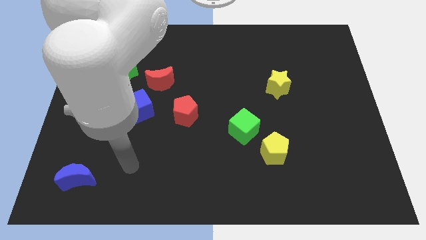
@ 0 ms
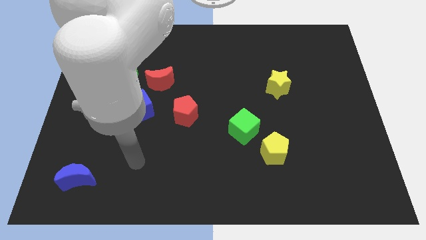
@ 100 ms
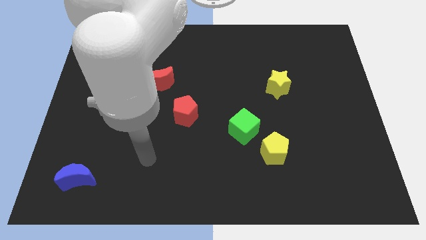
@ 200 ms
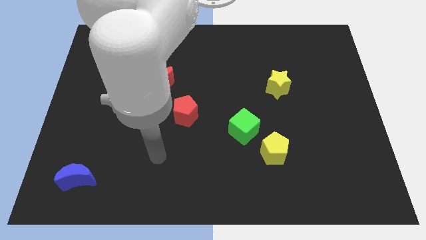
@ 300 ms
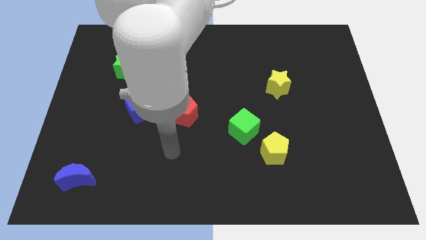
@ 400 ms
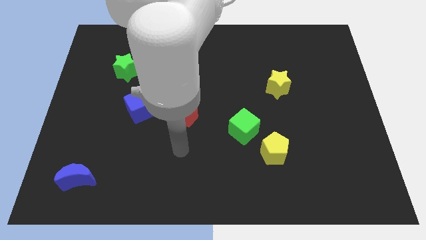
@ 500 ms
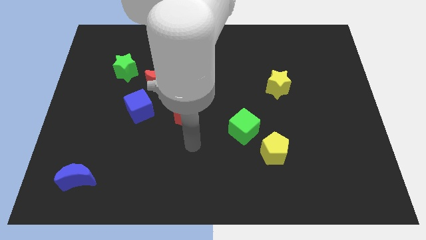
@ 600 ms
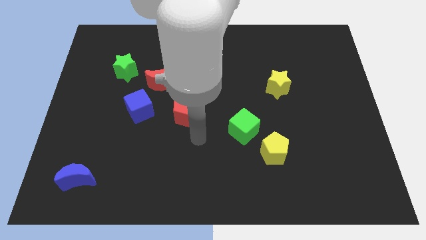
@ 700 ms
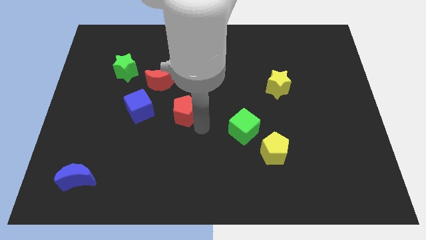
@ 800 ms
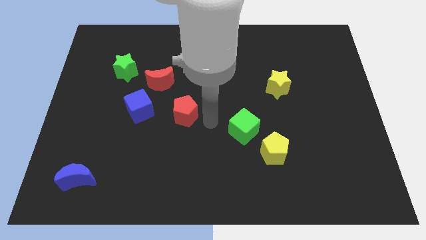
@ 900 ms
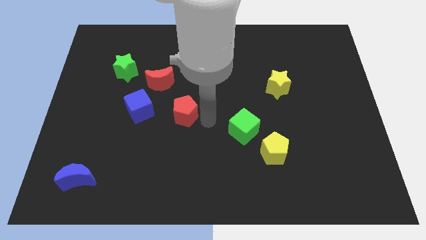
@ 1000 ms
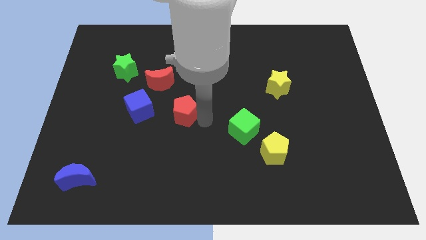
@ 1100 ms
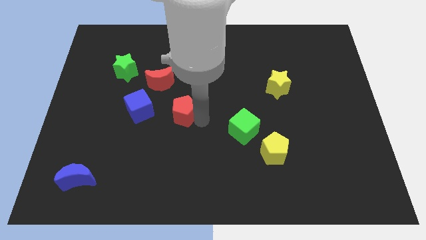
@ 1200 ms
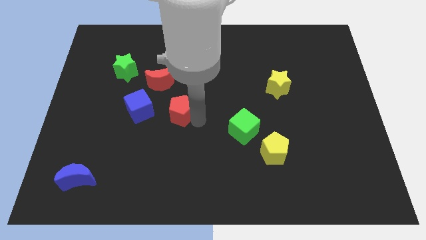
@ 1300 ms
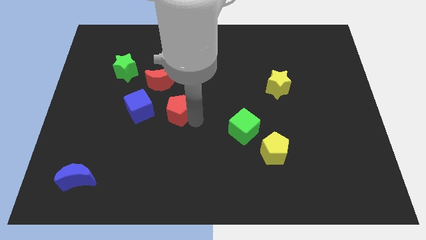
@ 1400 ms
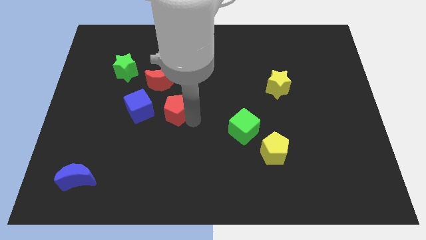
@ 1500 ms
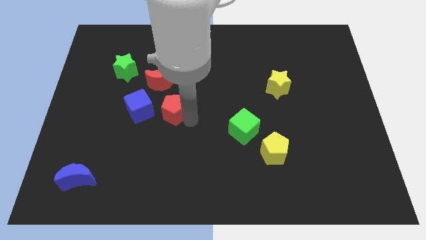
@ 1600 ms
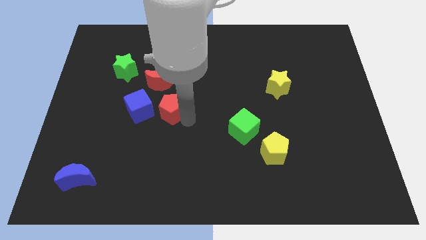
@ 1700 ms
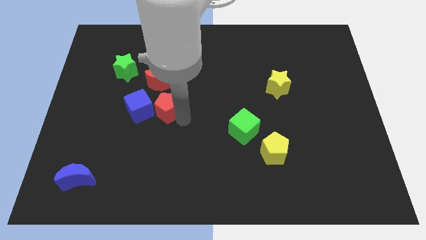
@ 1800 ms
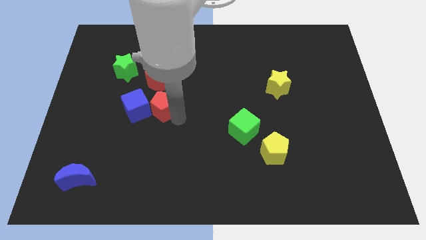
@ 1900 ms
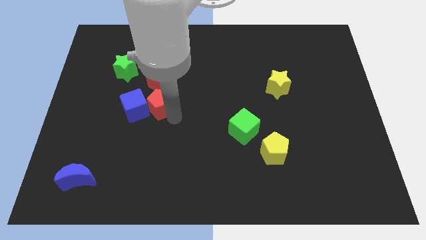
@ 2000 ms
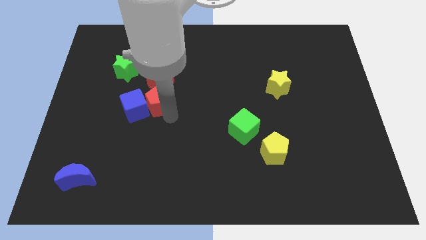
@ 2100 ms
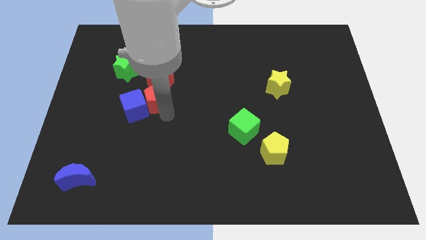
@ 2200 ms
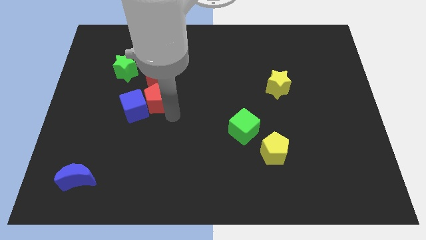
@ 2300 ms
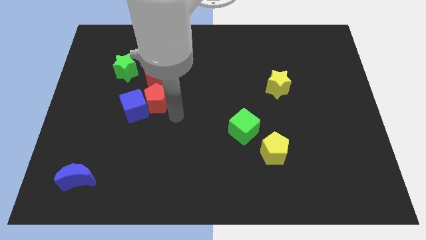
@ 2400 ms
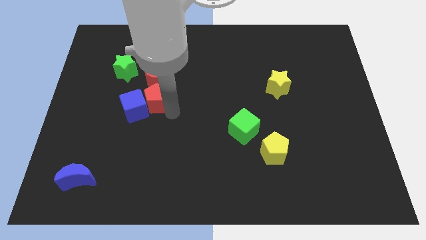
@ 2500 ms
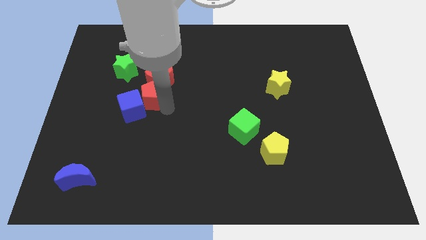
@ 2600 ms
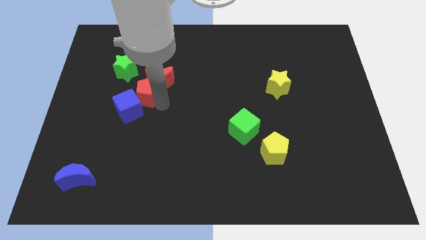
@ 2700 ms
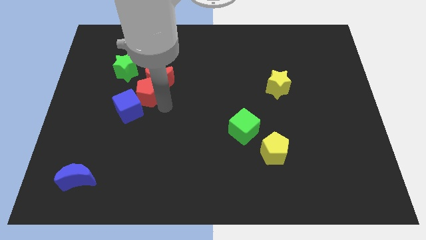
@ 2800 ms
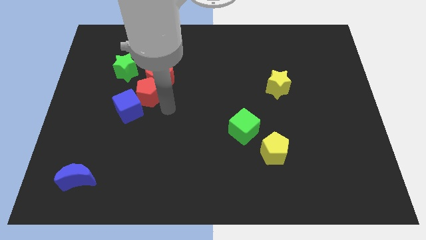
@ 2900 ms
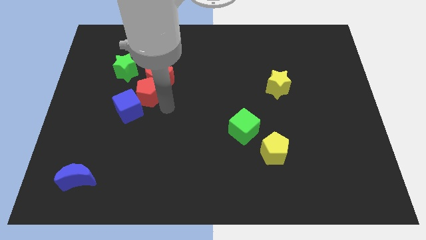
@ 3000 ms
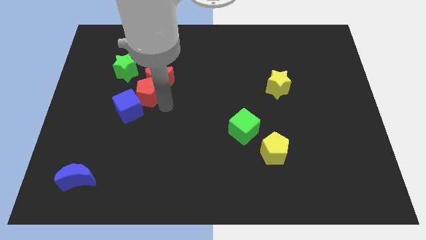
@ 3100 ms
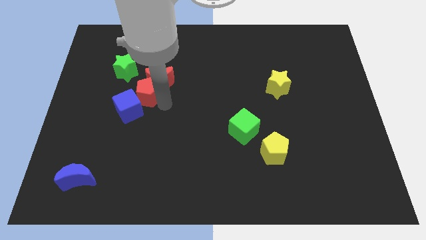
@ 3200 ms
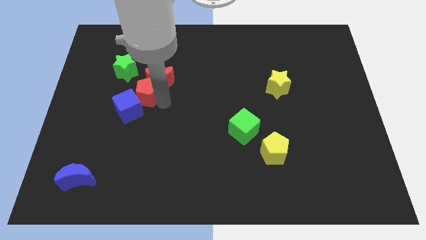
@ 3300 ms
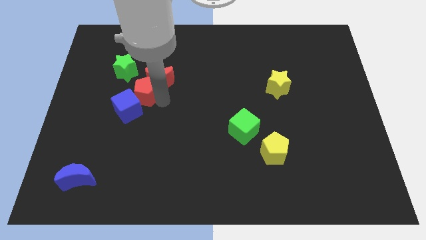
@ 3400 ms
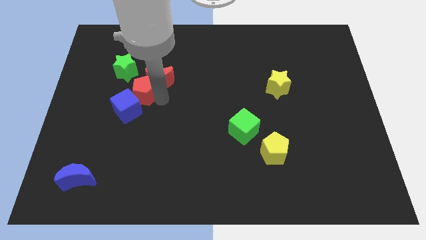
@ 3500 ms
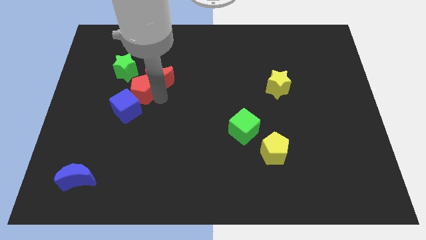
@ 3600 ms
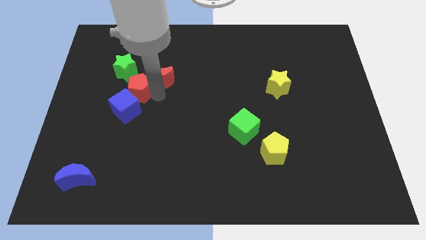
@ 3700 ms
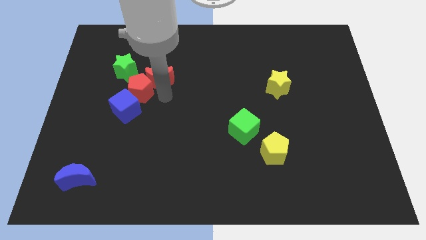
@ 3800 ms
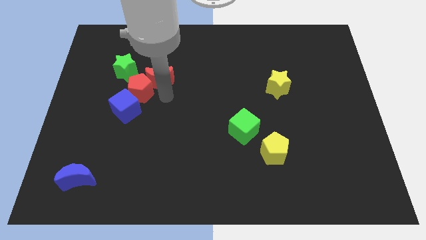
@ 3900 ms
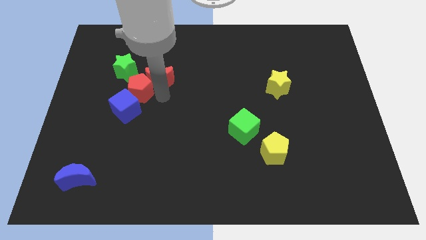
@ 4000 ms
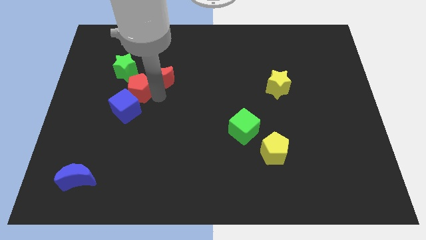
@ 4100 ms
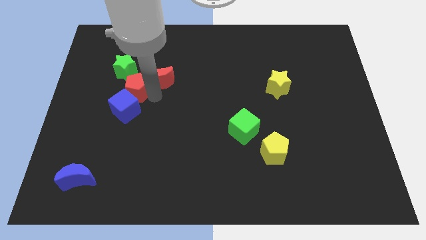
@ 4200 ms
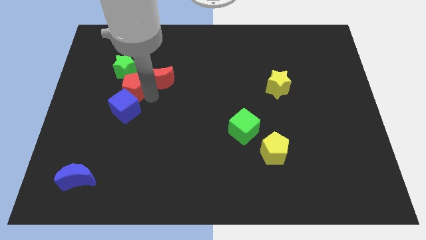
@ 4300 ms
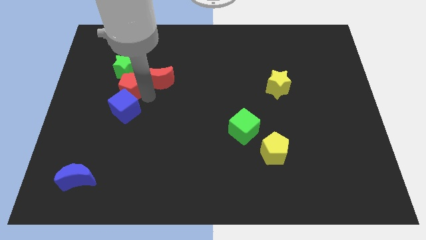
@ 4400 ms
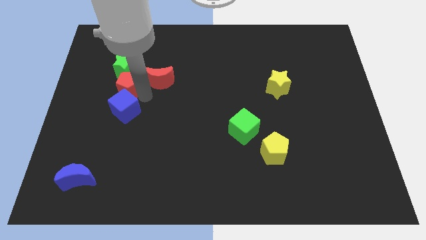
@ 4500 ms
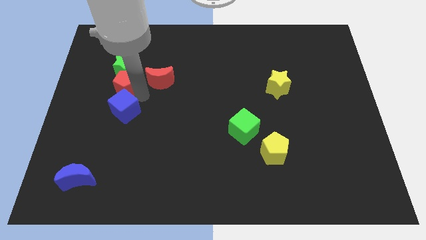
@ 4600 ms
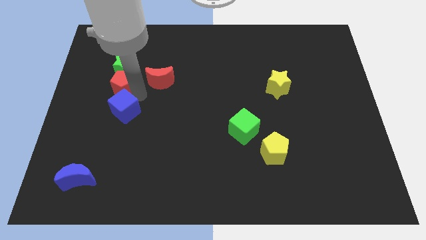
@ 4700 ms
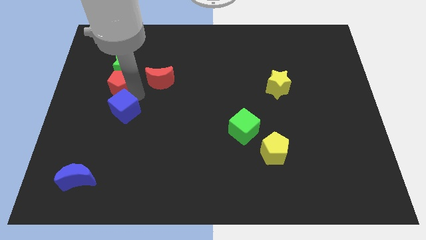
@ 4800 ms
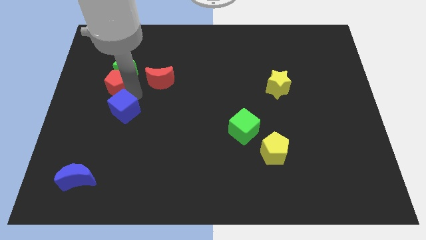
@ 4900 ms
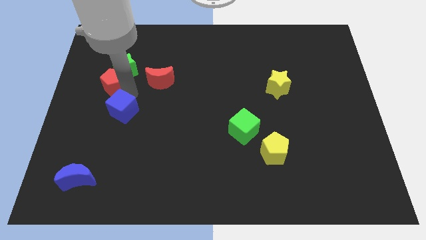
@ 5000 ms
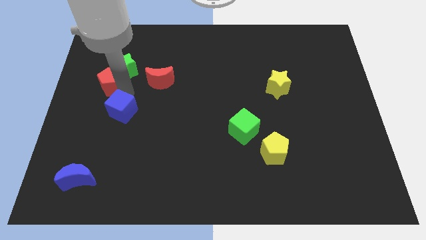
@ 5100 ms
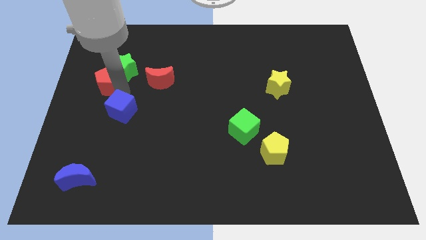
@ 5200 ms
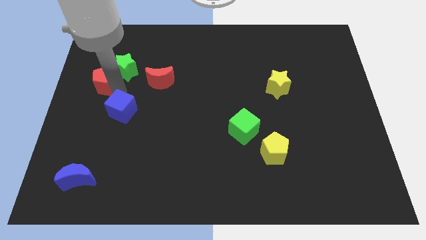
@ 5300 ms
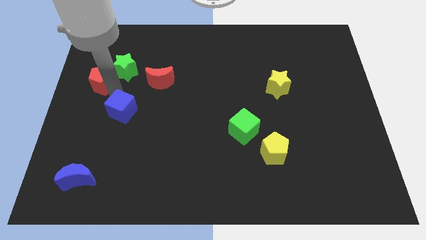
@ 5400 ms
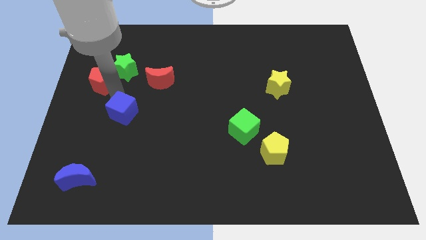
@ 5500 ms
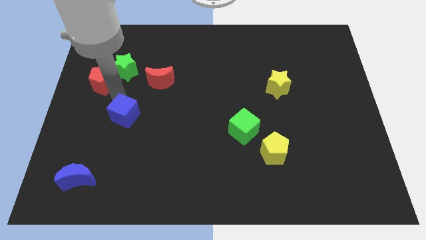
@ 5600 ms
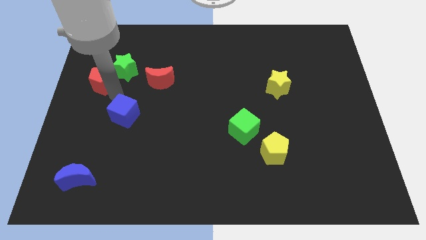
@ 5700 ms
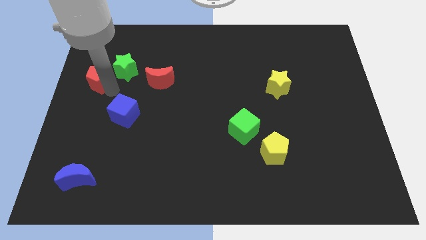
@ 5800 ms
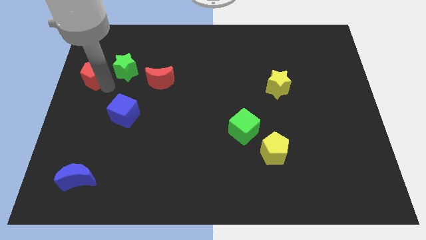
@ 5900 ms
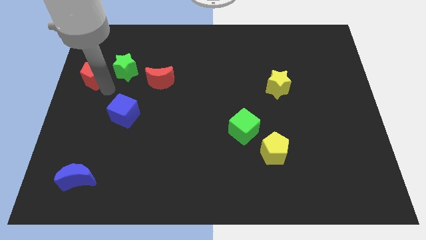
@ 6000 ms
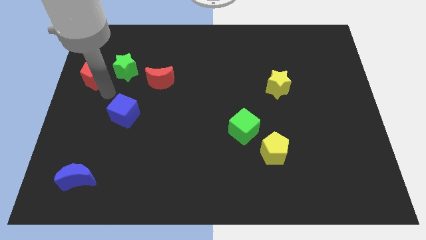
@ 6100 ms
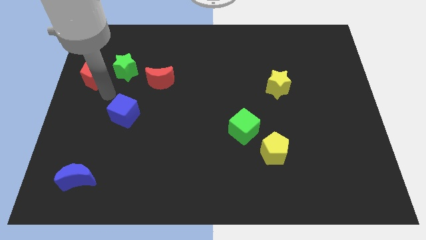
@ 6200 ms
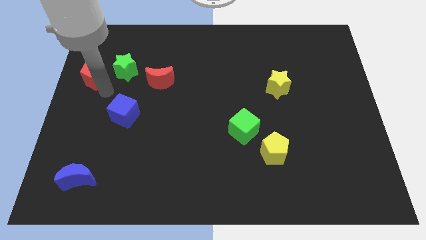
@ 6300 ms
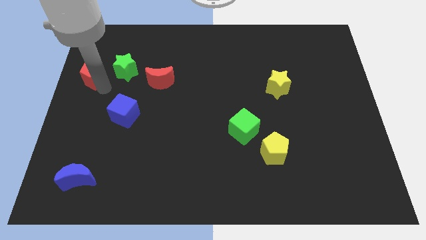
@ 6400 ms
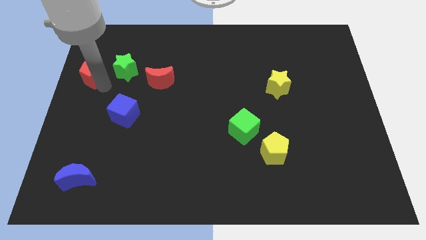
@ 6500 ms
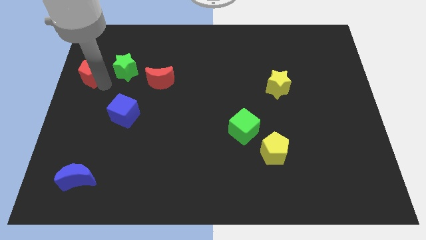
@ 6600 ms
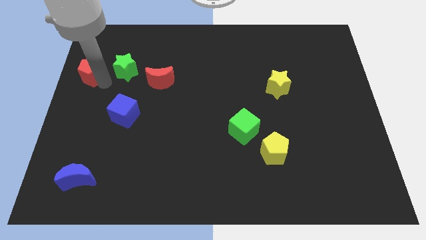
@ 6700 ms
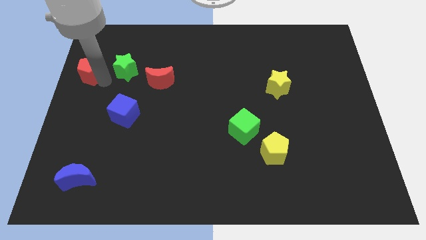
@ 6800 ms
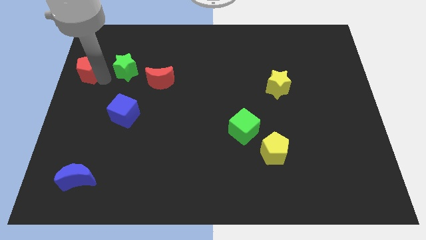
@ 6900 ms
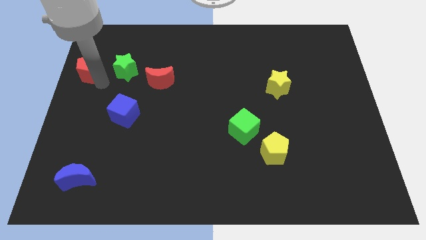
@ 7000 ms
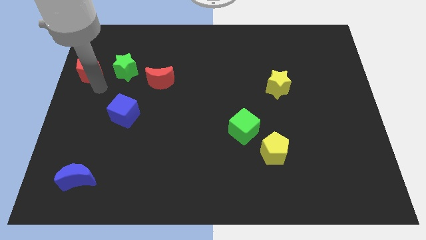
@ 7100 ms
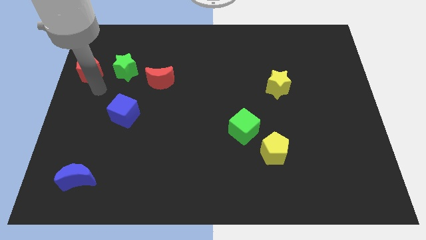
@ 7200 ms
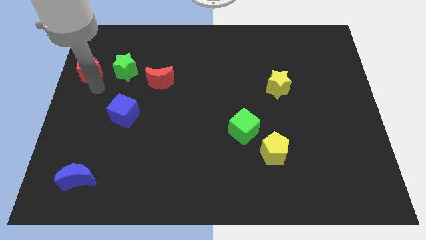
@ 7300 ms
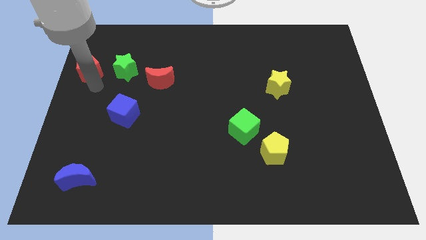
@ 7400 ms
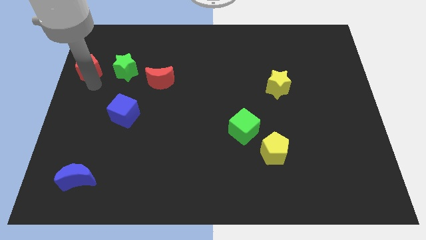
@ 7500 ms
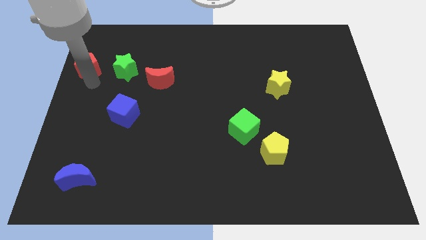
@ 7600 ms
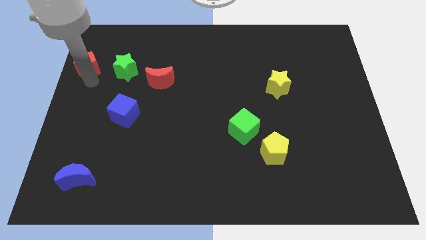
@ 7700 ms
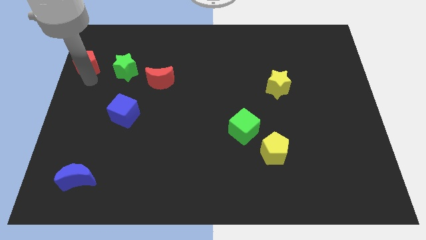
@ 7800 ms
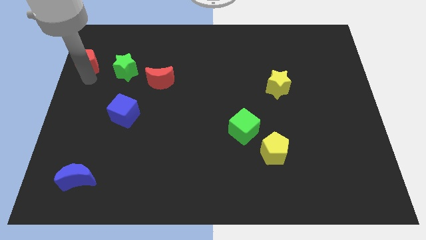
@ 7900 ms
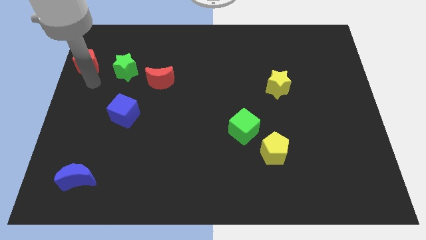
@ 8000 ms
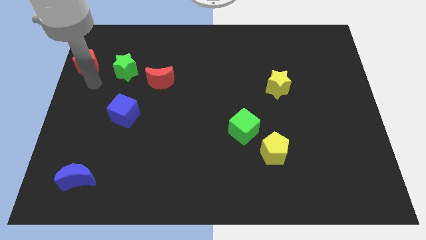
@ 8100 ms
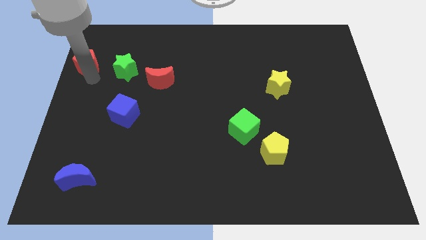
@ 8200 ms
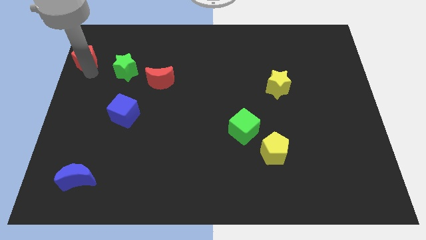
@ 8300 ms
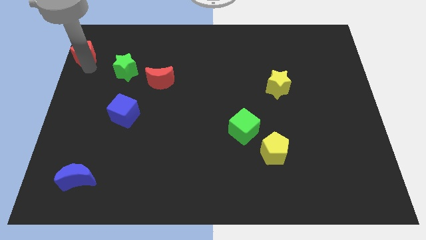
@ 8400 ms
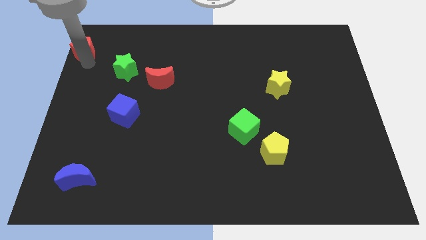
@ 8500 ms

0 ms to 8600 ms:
push the red pentagon to the upper left corner
